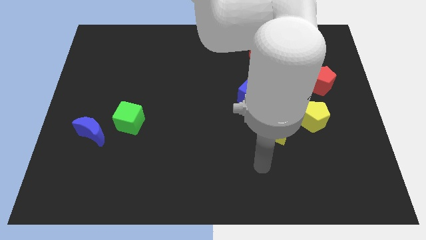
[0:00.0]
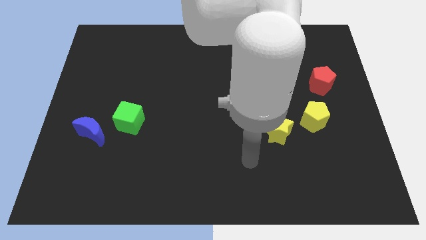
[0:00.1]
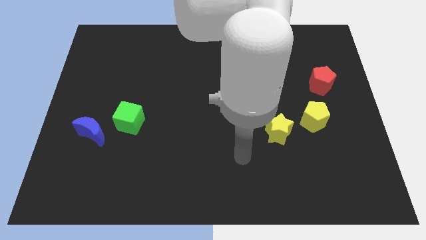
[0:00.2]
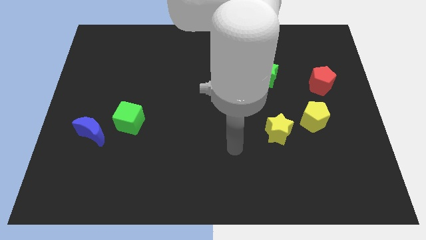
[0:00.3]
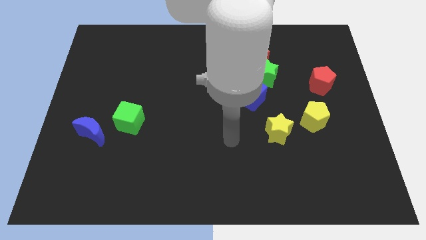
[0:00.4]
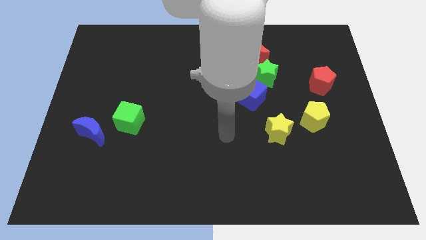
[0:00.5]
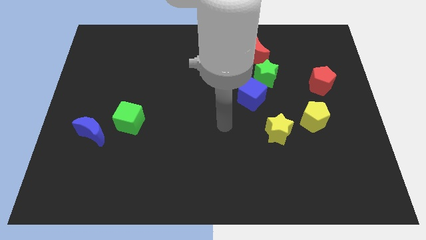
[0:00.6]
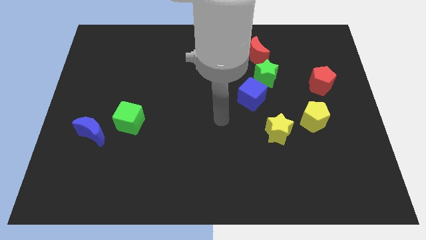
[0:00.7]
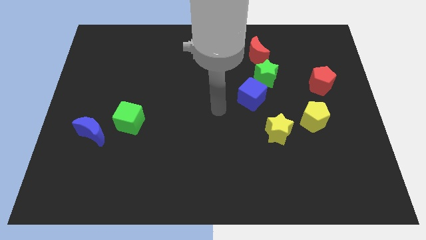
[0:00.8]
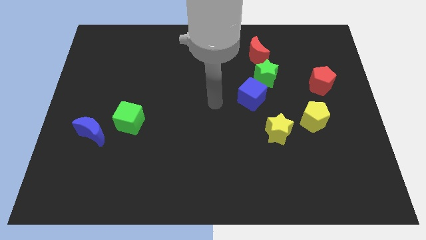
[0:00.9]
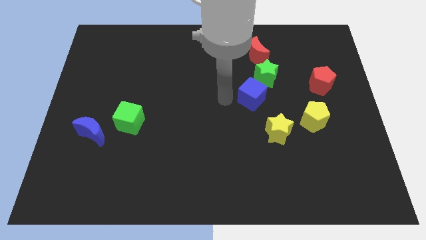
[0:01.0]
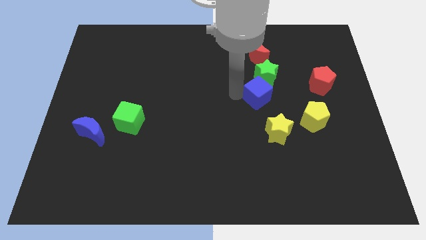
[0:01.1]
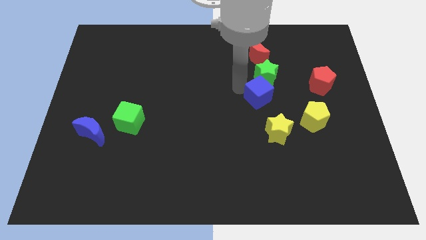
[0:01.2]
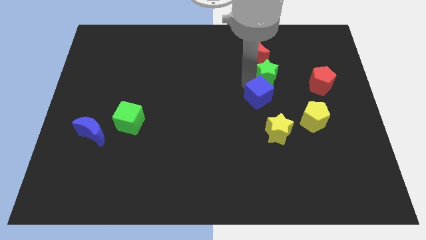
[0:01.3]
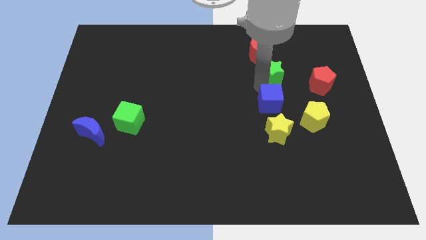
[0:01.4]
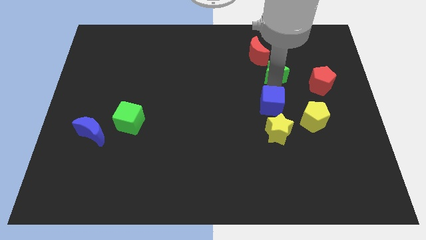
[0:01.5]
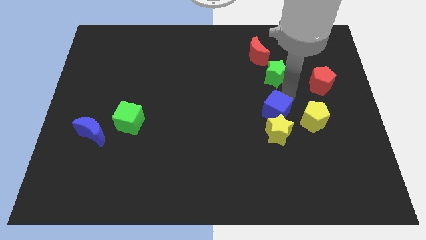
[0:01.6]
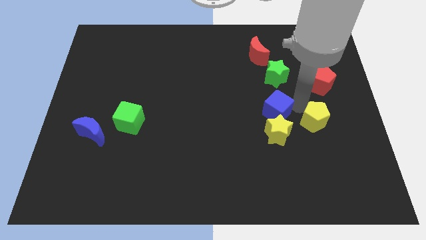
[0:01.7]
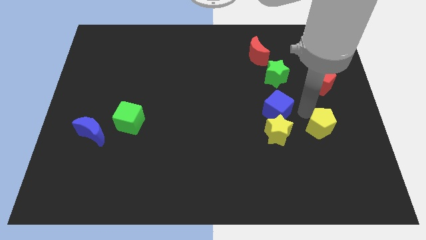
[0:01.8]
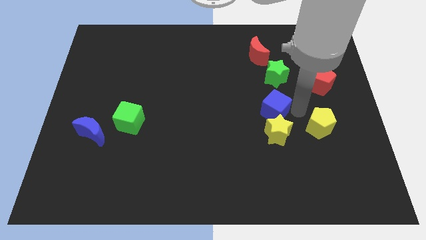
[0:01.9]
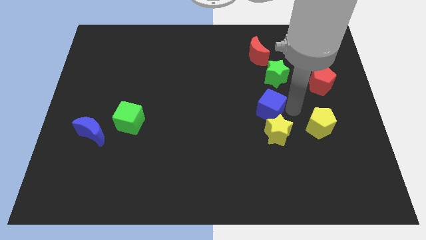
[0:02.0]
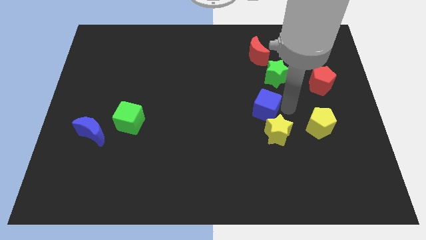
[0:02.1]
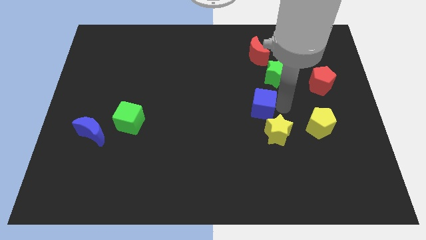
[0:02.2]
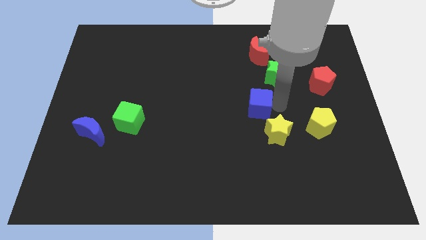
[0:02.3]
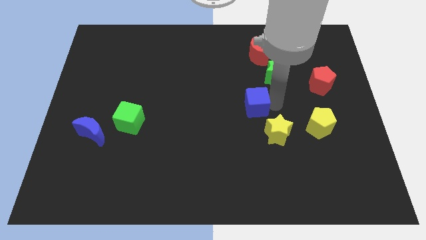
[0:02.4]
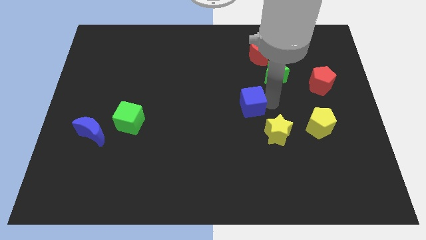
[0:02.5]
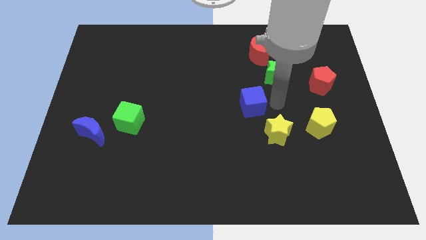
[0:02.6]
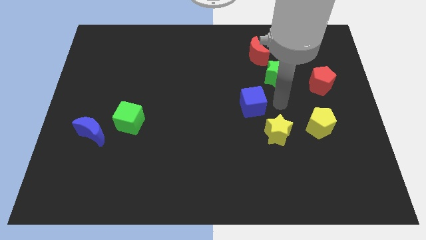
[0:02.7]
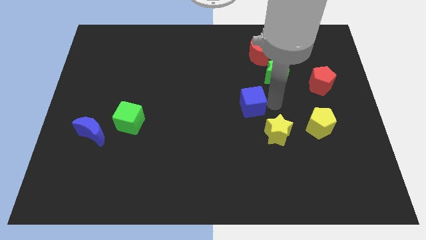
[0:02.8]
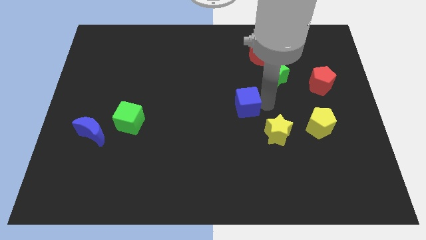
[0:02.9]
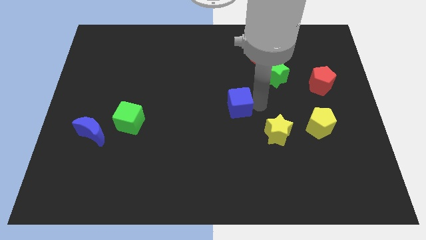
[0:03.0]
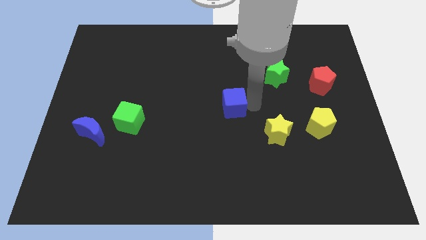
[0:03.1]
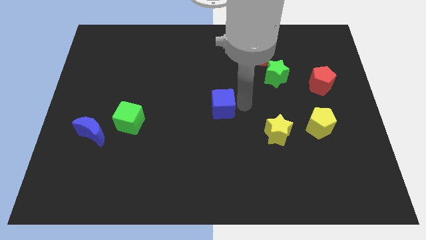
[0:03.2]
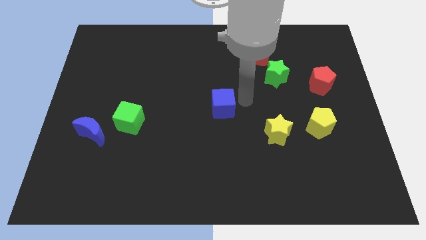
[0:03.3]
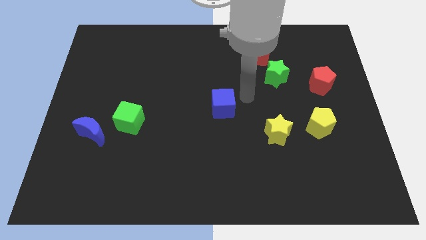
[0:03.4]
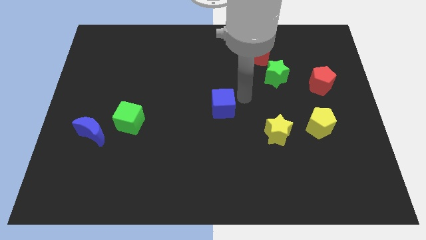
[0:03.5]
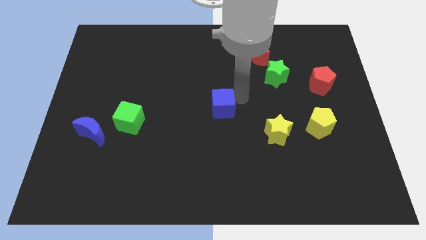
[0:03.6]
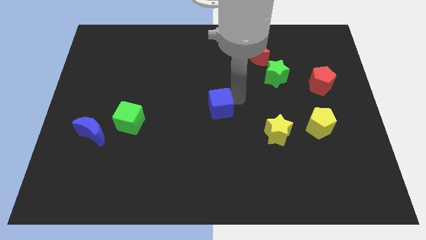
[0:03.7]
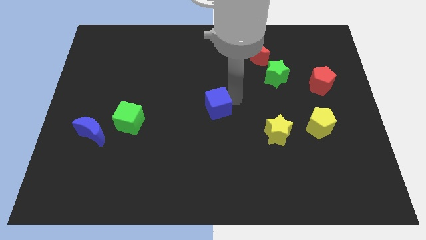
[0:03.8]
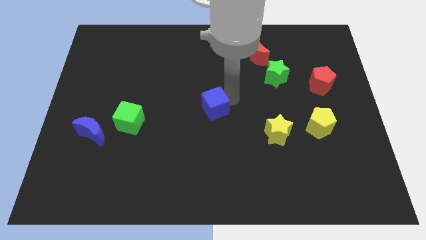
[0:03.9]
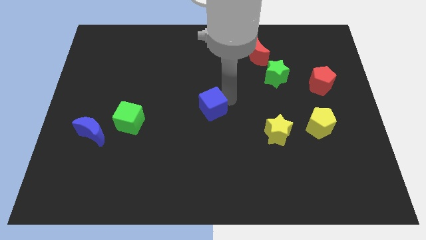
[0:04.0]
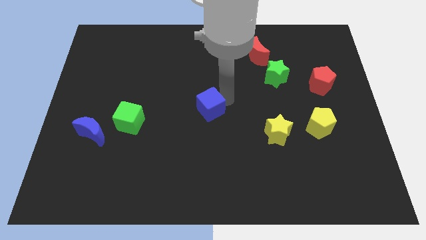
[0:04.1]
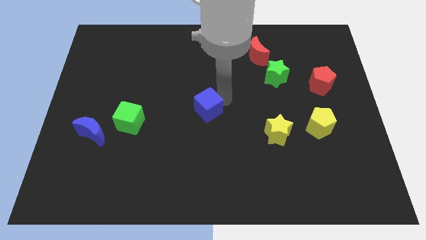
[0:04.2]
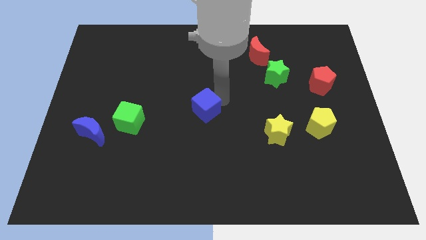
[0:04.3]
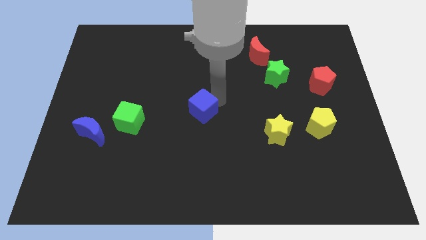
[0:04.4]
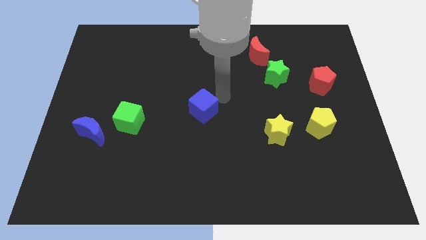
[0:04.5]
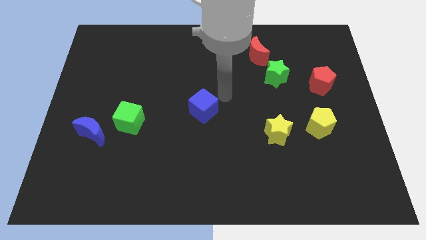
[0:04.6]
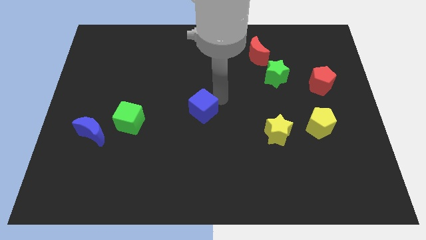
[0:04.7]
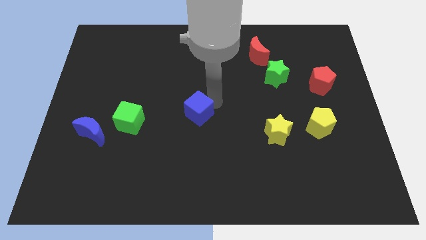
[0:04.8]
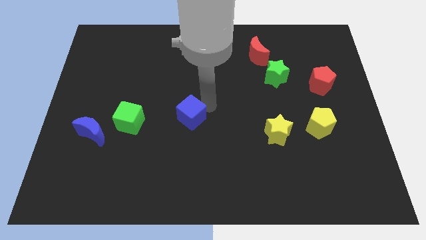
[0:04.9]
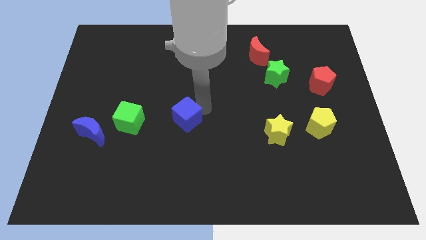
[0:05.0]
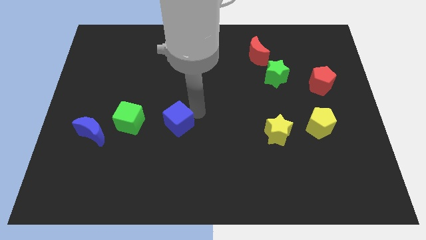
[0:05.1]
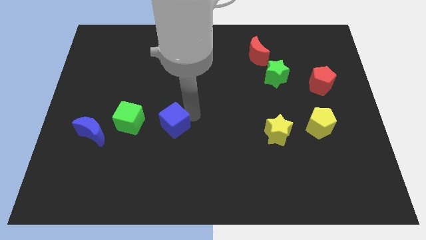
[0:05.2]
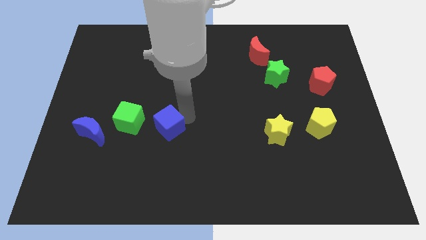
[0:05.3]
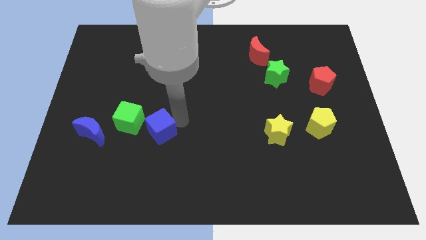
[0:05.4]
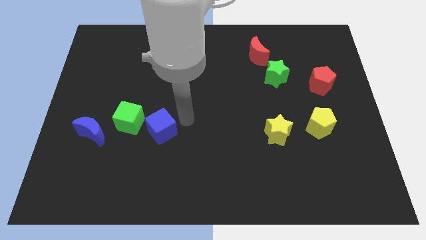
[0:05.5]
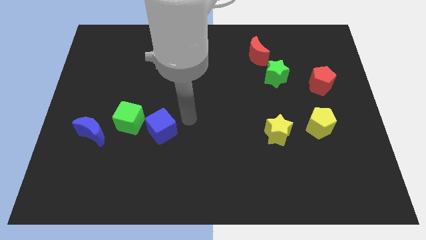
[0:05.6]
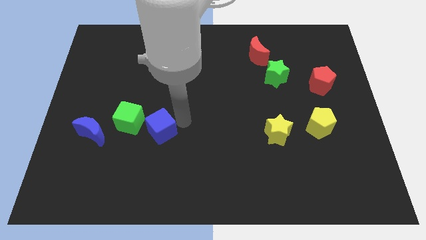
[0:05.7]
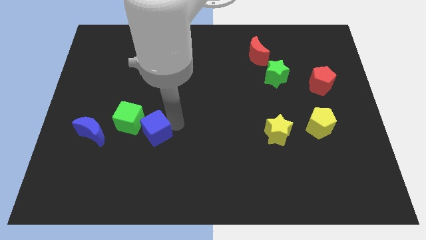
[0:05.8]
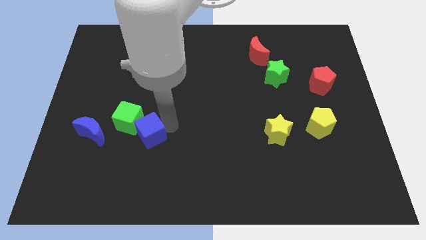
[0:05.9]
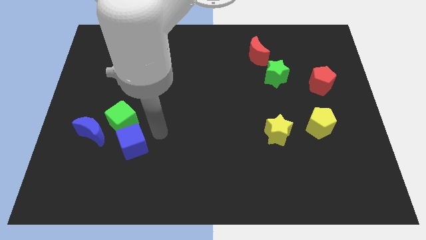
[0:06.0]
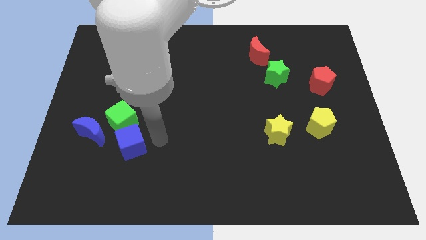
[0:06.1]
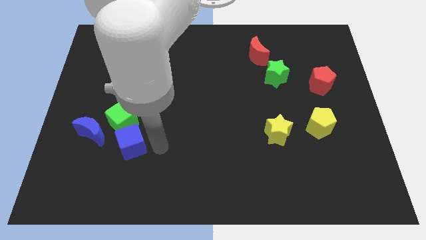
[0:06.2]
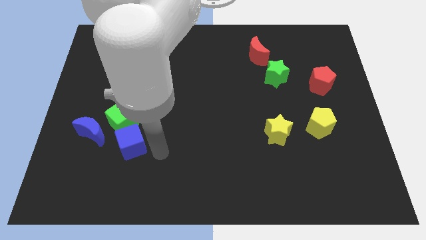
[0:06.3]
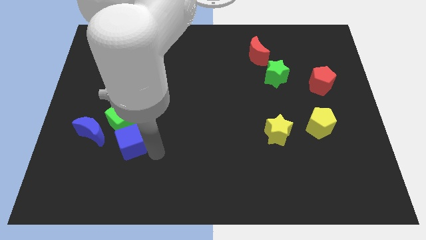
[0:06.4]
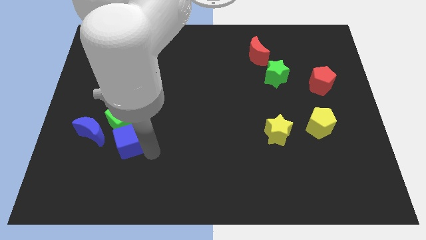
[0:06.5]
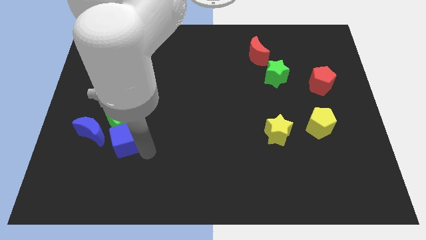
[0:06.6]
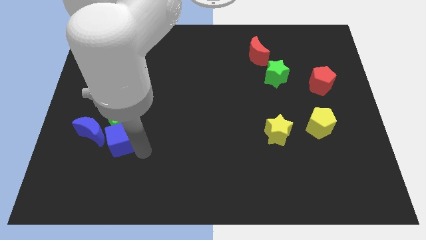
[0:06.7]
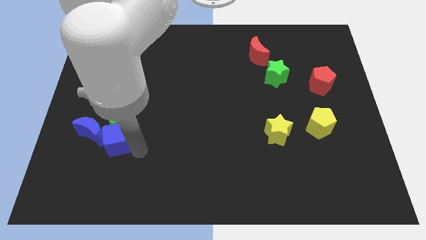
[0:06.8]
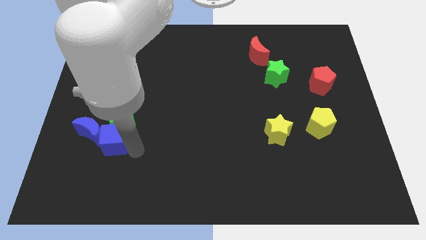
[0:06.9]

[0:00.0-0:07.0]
slide the blue cube to the blue moon

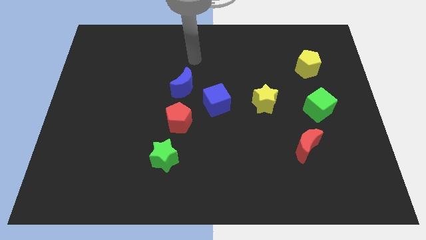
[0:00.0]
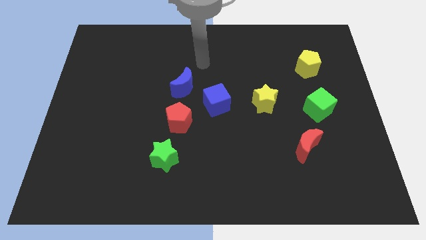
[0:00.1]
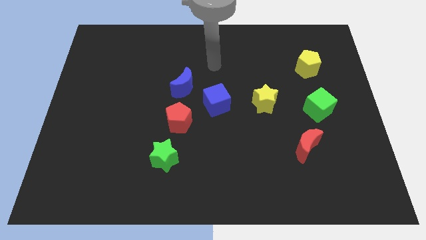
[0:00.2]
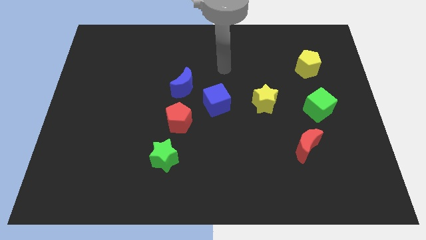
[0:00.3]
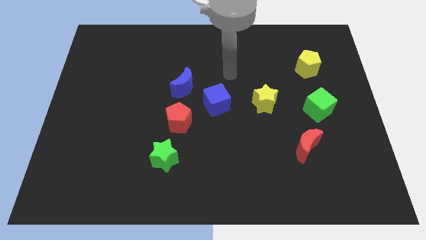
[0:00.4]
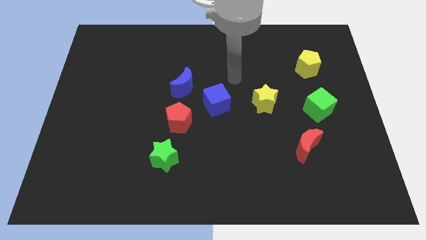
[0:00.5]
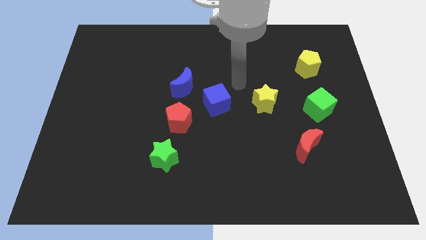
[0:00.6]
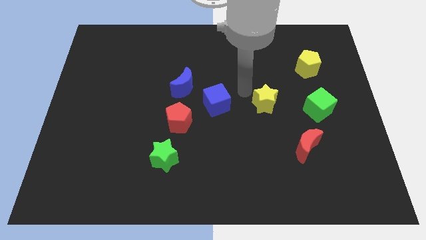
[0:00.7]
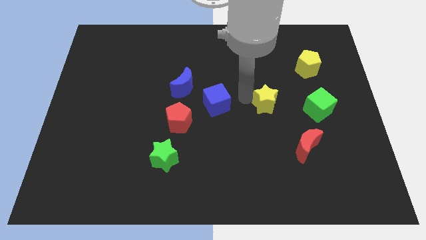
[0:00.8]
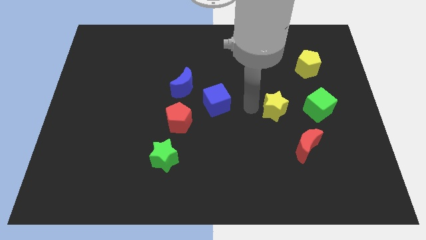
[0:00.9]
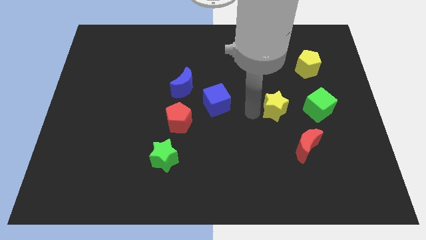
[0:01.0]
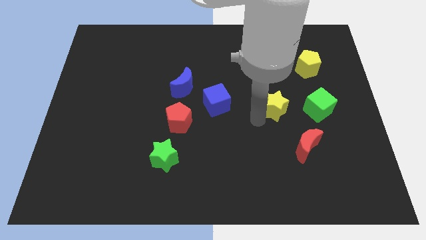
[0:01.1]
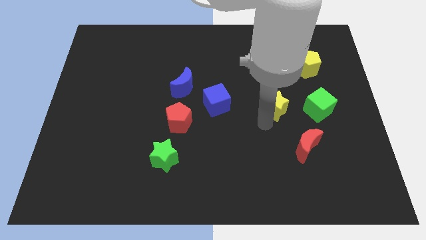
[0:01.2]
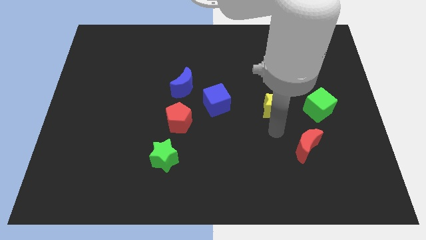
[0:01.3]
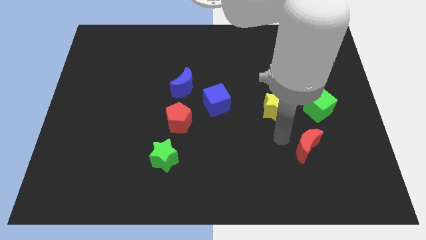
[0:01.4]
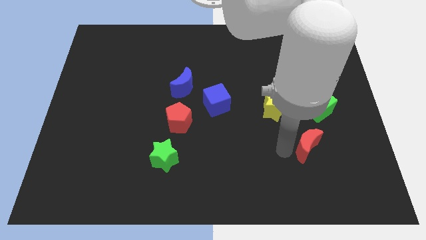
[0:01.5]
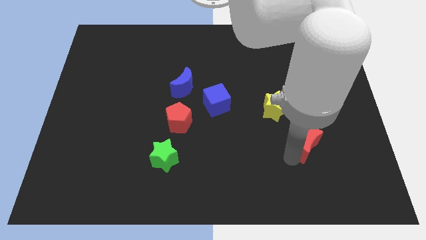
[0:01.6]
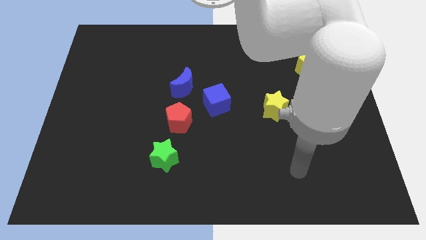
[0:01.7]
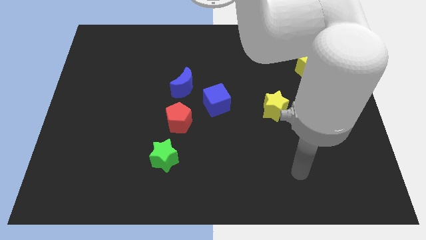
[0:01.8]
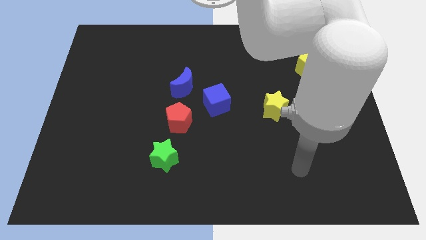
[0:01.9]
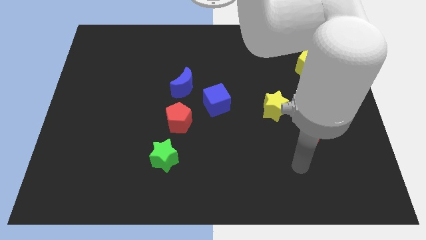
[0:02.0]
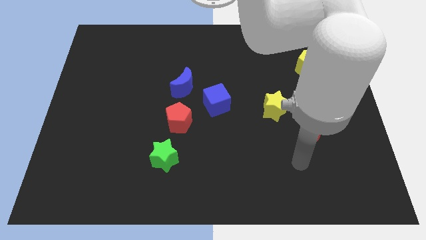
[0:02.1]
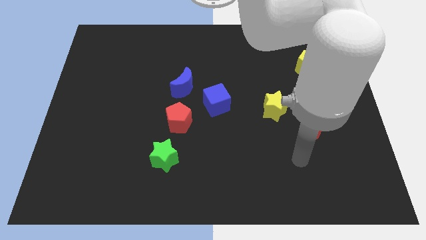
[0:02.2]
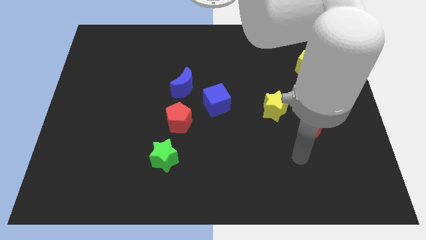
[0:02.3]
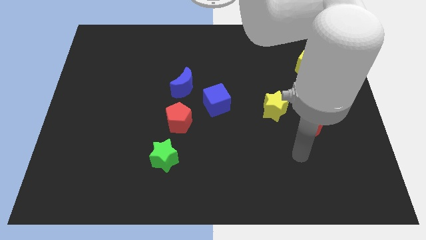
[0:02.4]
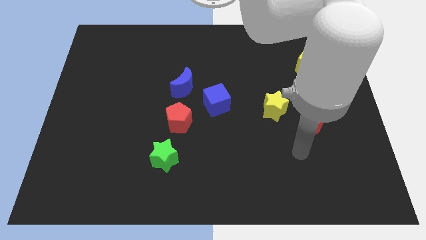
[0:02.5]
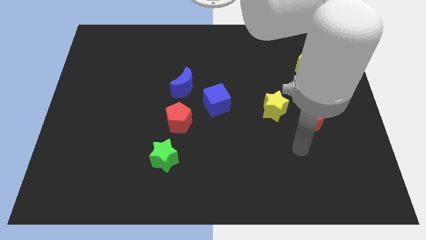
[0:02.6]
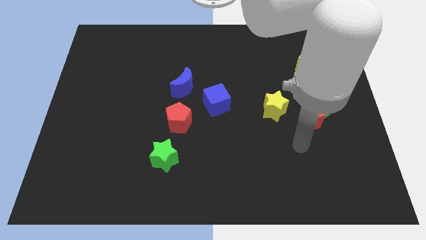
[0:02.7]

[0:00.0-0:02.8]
move the red moon close to the green cube
